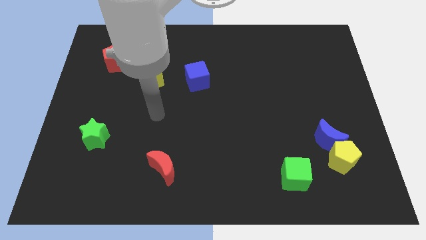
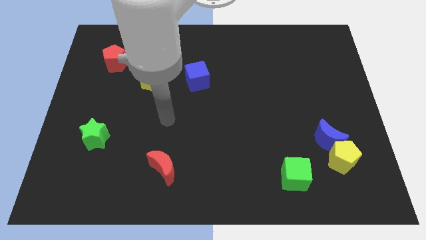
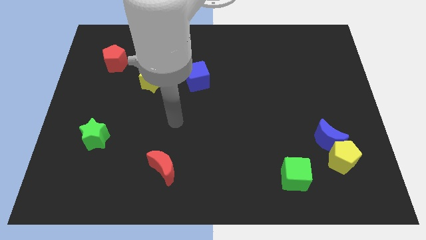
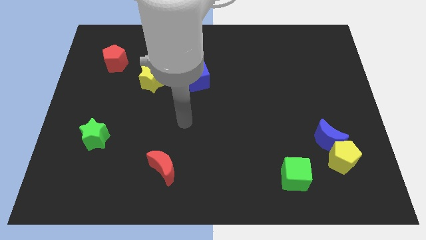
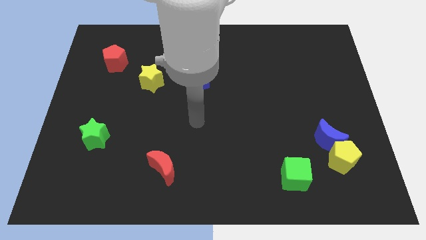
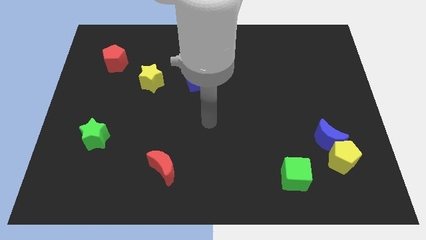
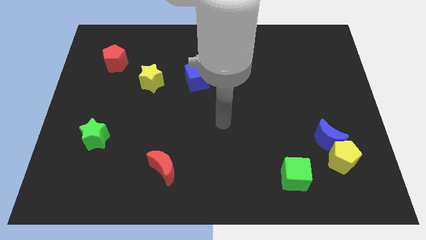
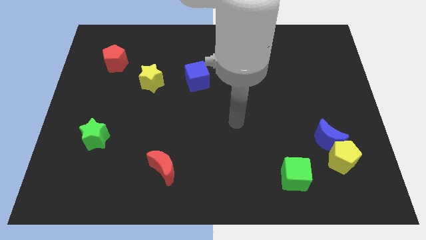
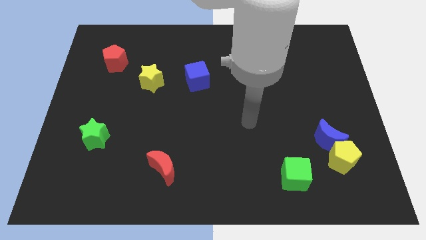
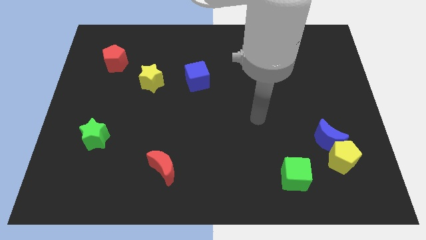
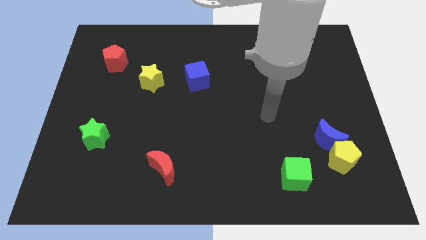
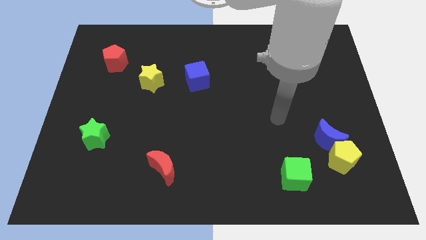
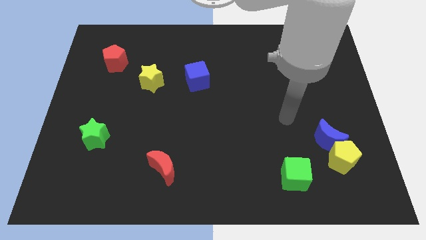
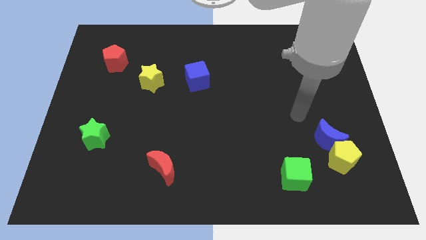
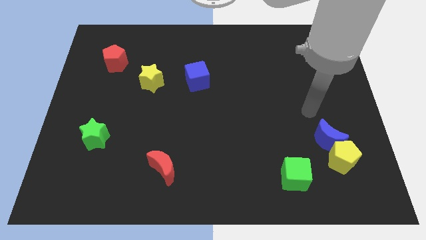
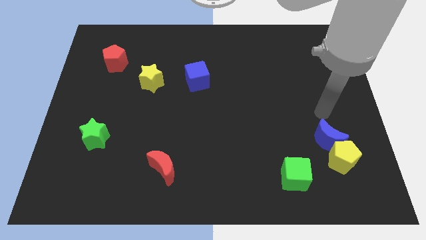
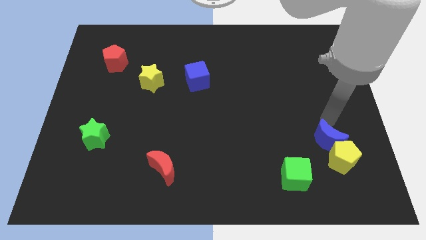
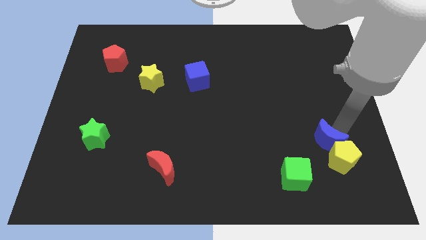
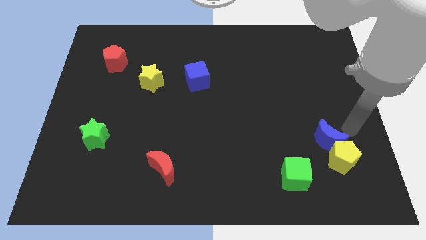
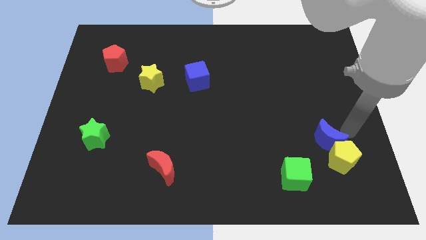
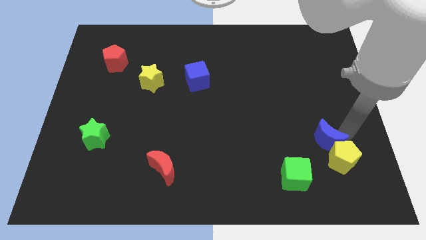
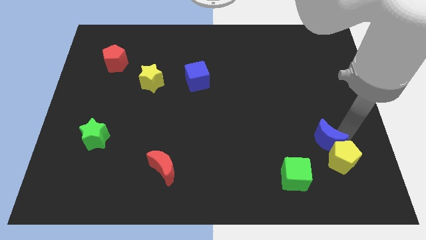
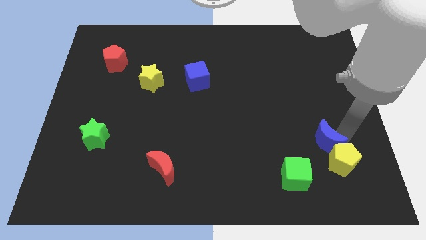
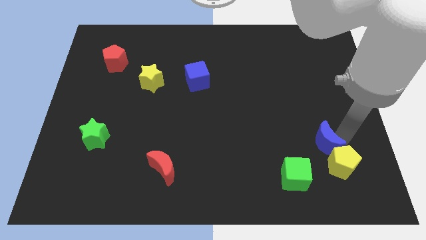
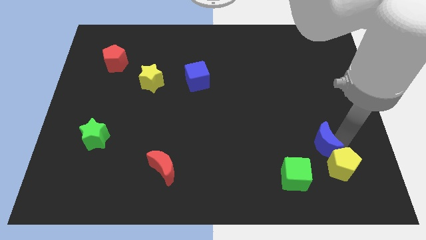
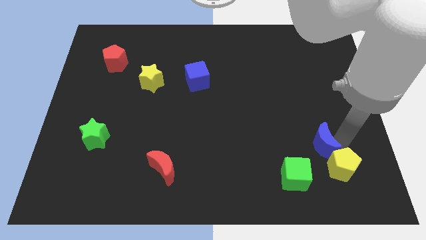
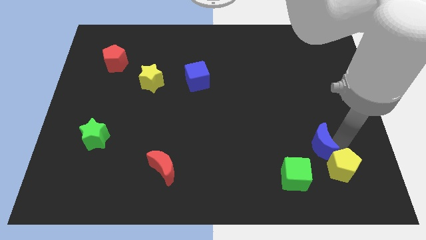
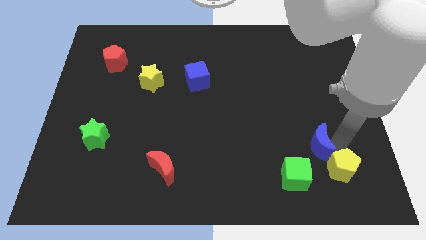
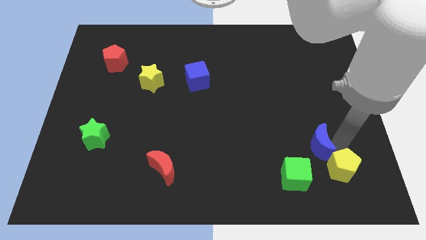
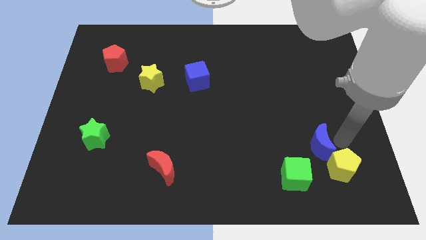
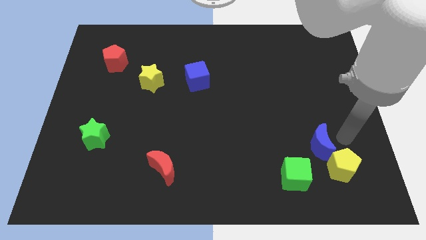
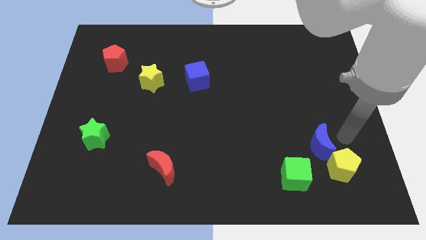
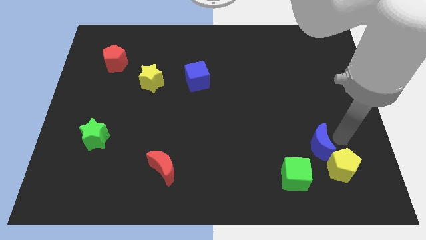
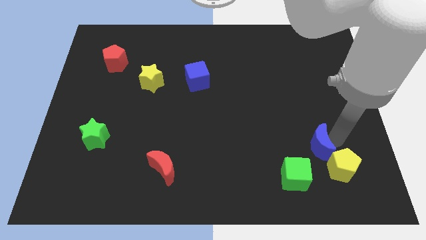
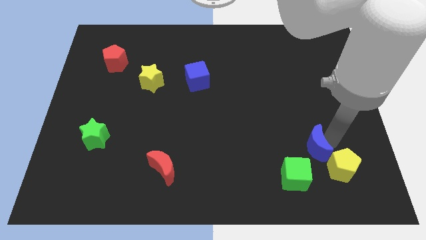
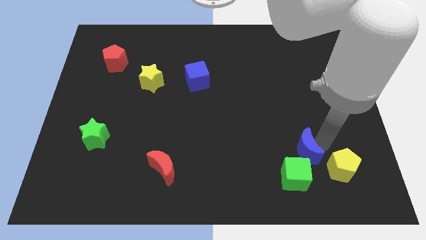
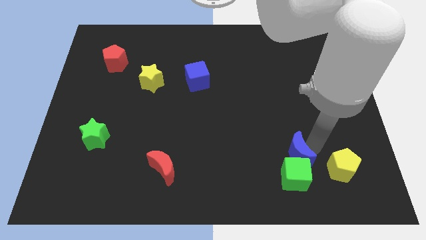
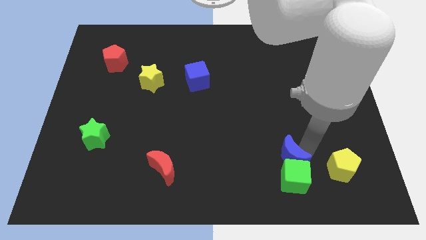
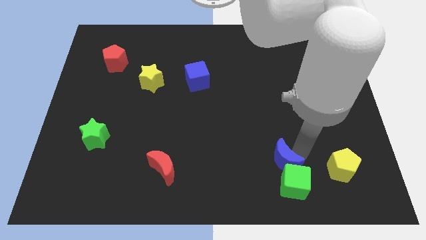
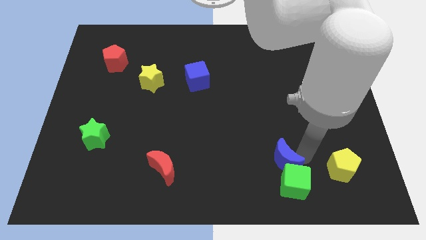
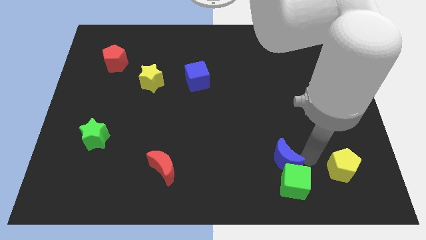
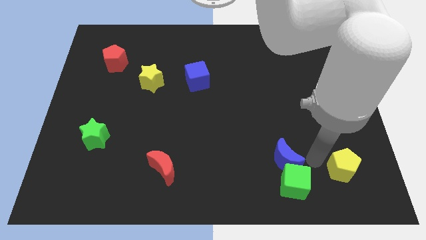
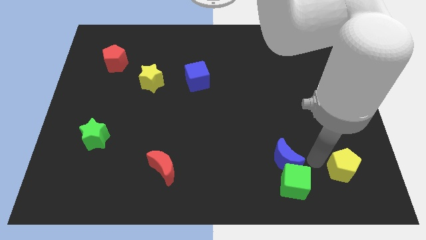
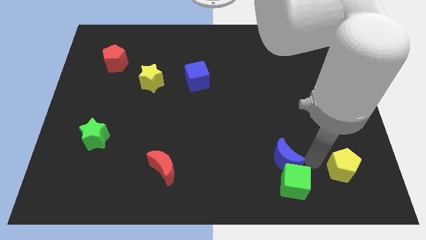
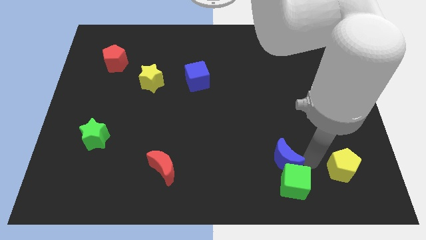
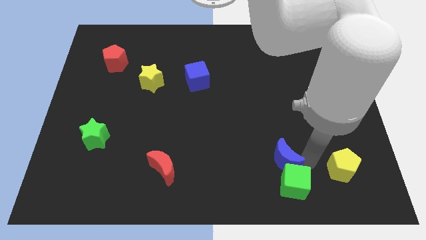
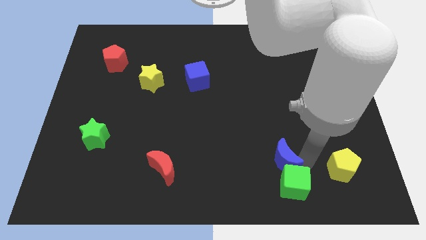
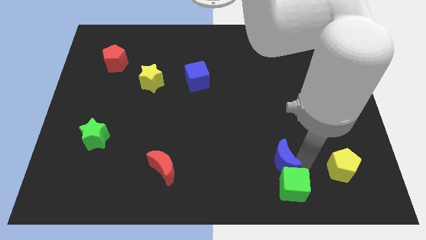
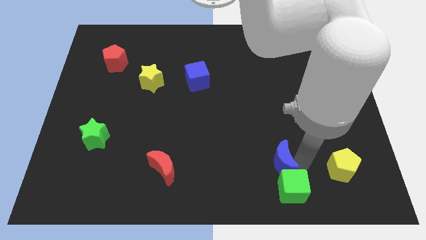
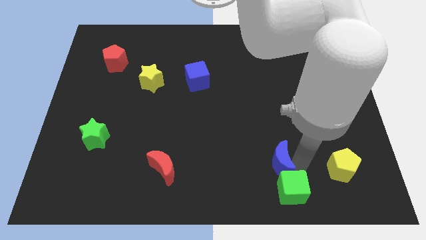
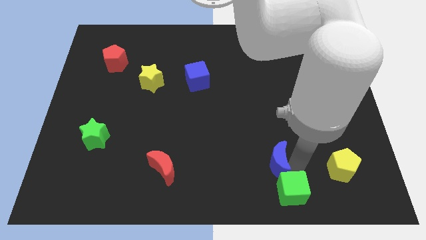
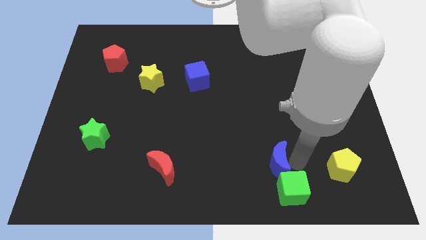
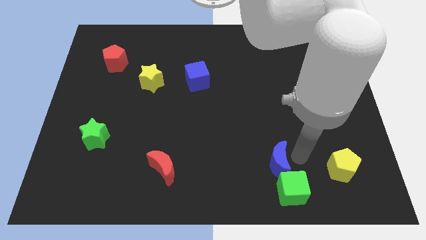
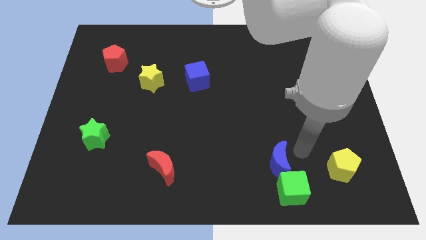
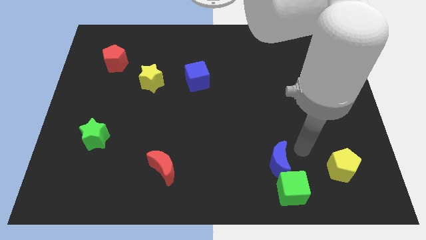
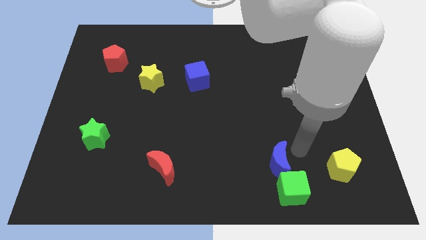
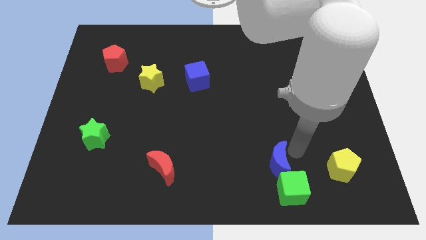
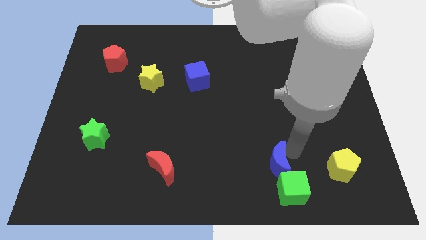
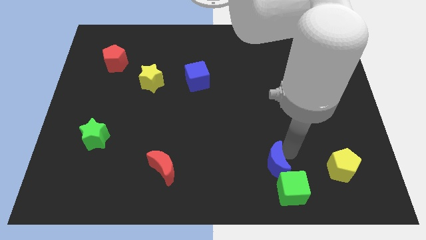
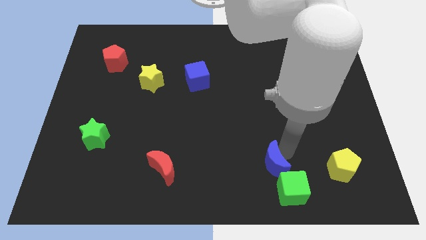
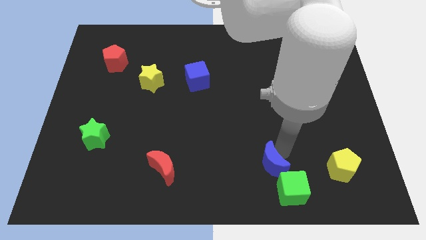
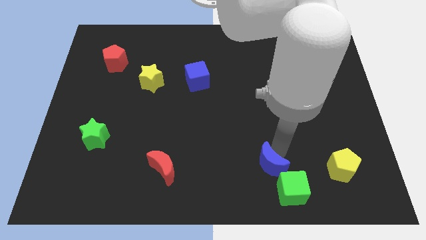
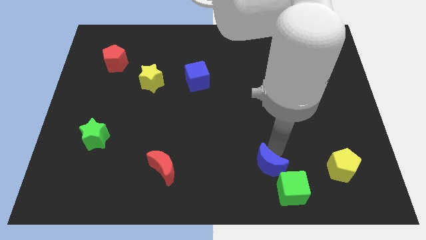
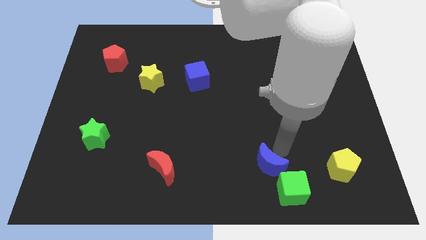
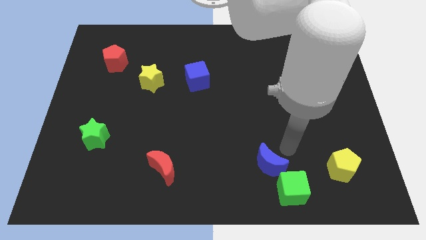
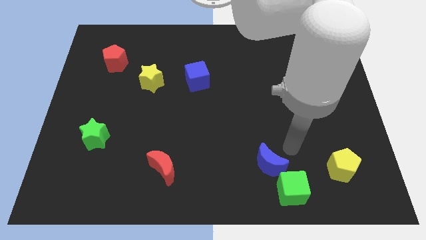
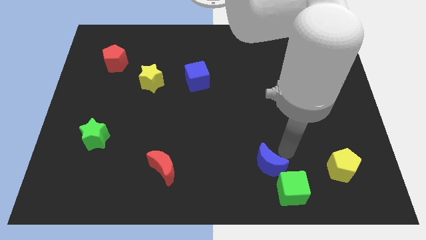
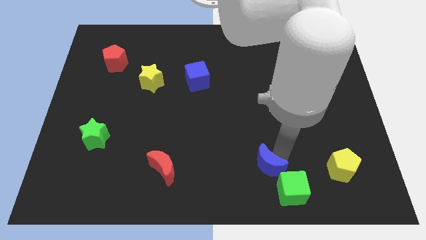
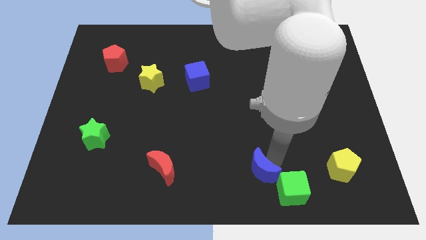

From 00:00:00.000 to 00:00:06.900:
slide the blue moon to the bottom side
